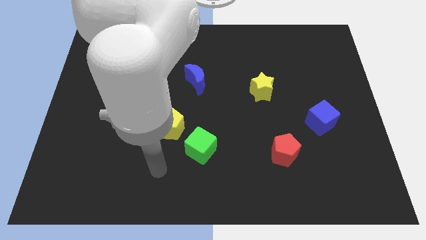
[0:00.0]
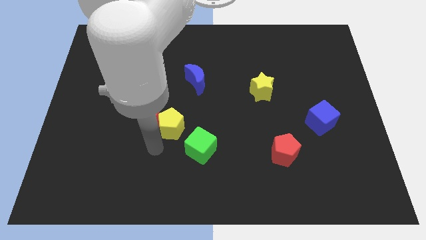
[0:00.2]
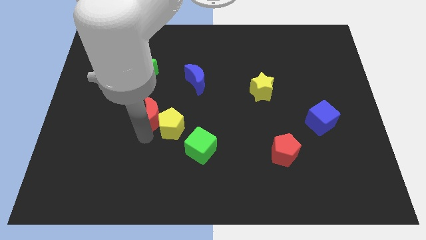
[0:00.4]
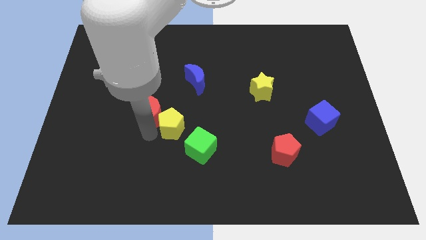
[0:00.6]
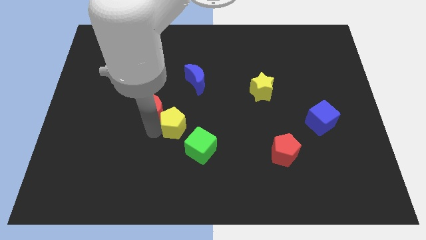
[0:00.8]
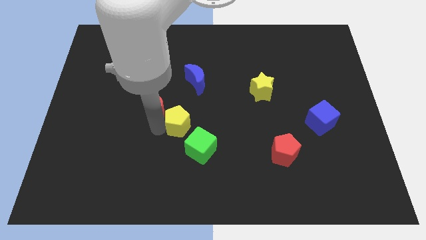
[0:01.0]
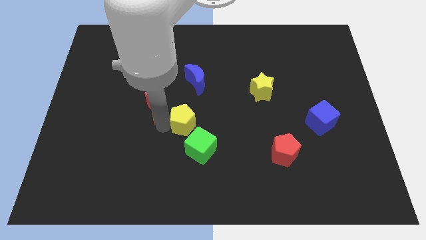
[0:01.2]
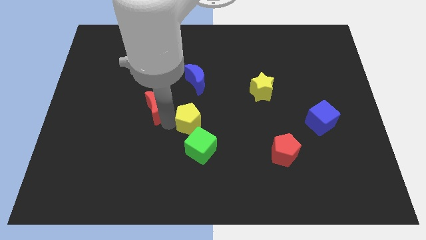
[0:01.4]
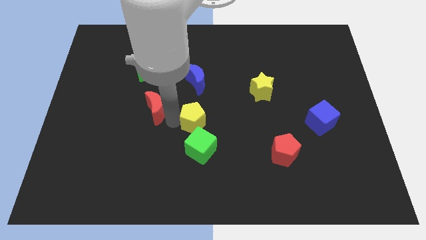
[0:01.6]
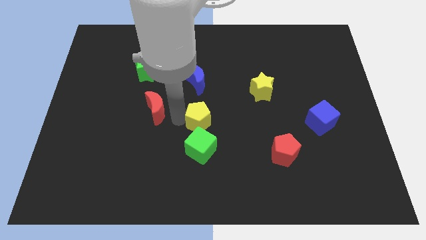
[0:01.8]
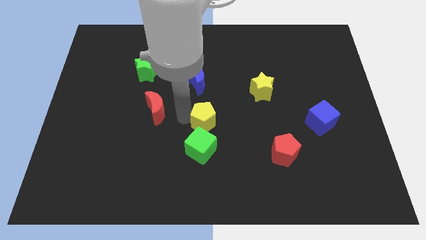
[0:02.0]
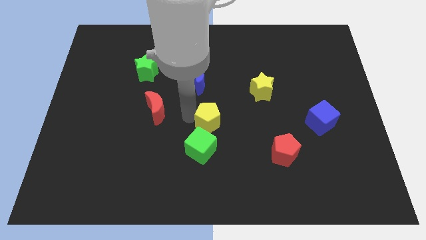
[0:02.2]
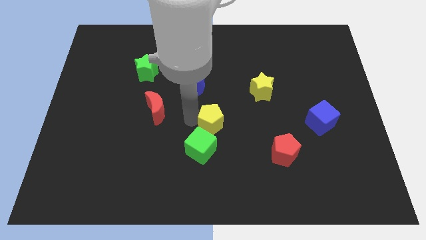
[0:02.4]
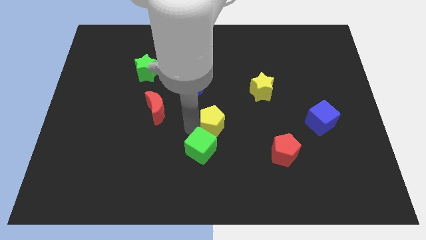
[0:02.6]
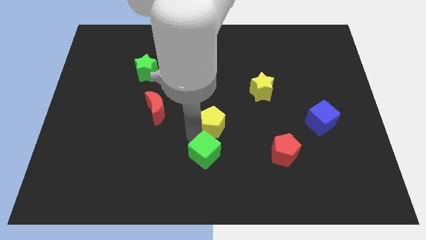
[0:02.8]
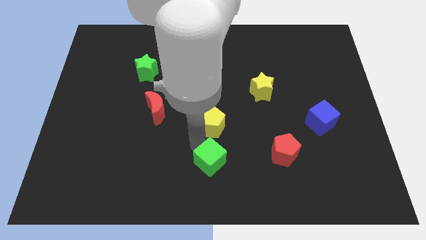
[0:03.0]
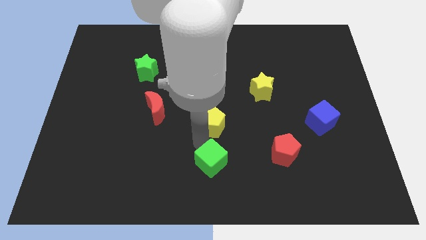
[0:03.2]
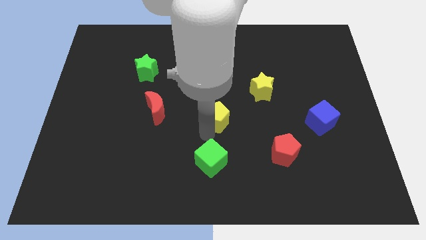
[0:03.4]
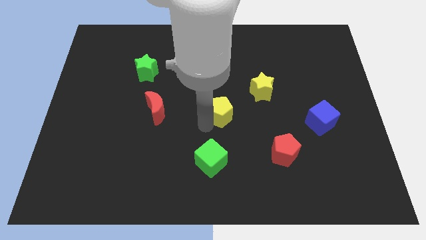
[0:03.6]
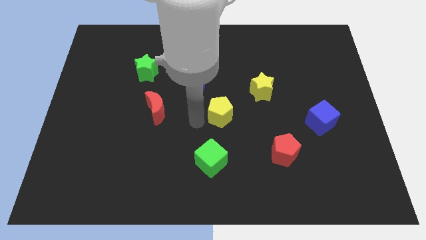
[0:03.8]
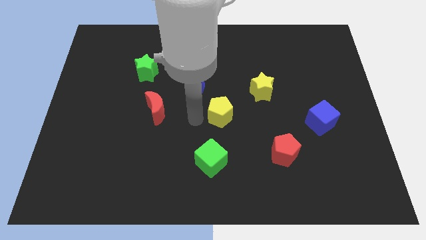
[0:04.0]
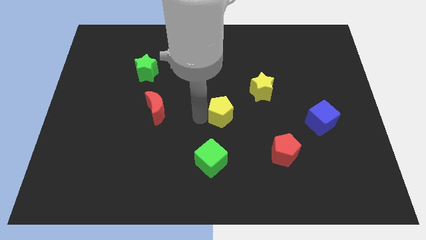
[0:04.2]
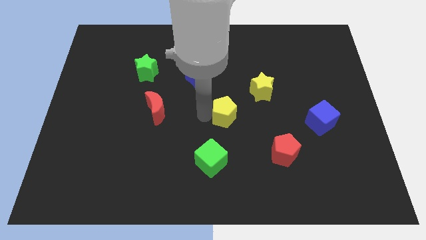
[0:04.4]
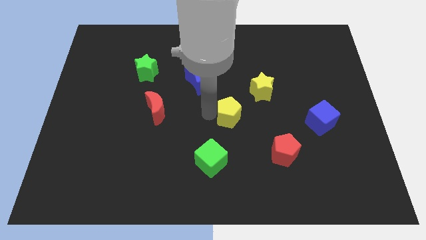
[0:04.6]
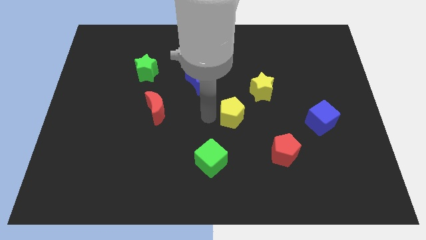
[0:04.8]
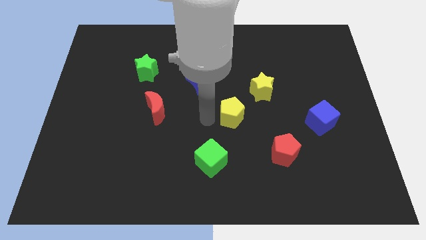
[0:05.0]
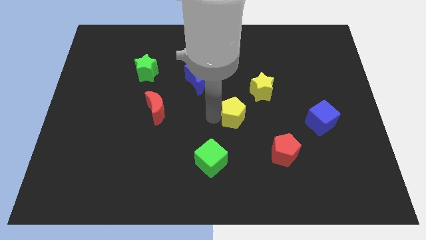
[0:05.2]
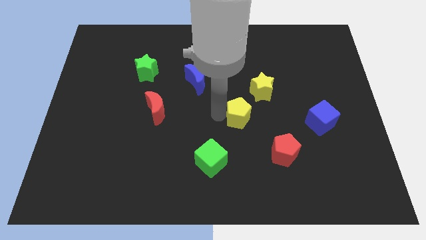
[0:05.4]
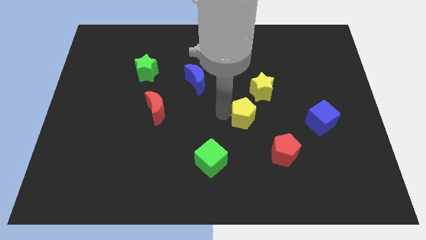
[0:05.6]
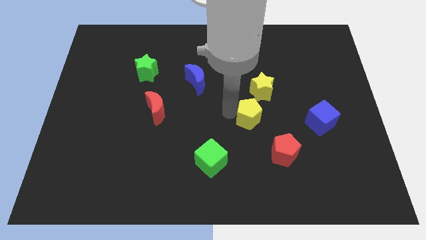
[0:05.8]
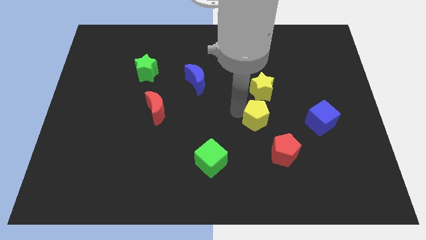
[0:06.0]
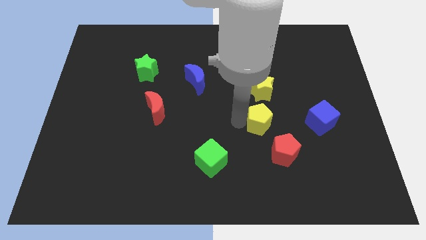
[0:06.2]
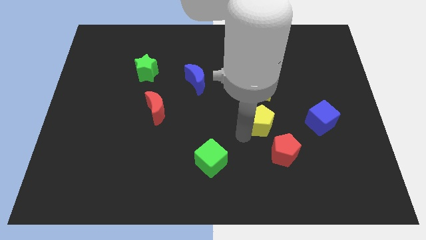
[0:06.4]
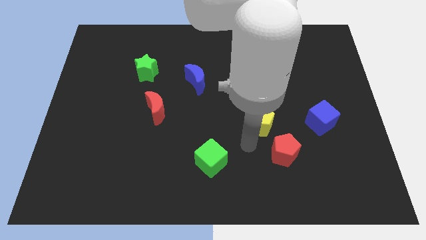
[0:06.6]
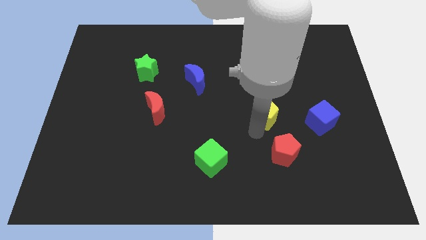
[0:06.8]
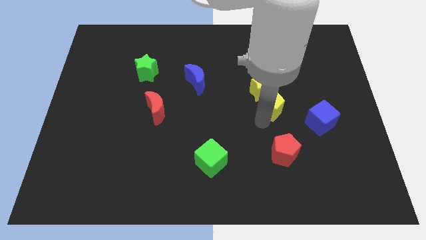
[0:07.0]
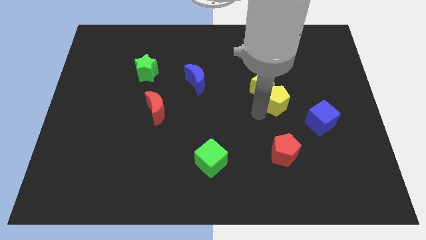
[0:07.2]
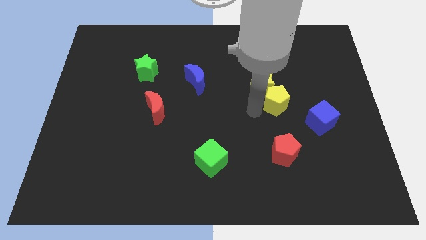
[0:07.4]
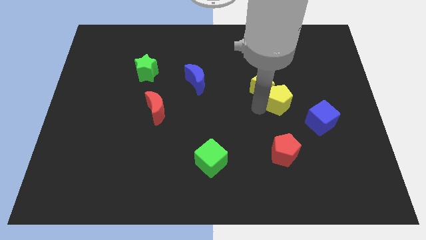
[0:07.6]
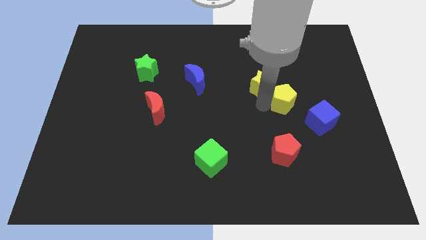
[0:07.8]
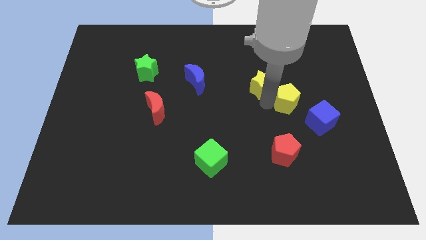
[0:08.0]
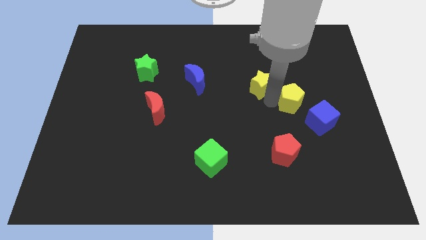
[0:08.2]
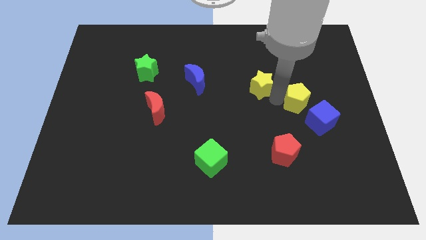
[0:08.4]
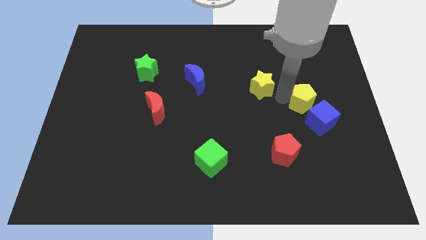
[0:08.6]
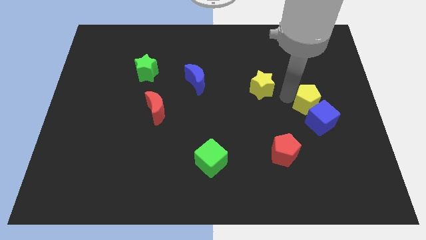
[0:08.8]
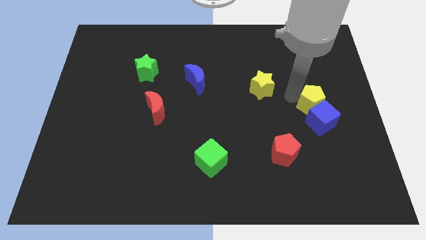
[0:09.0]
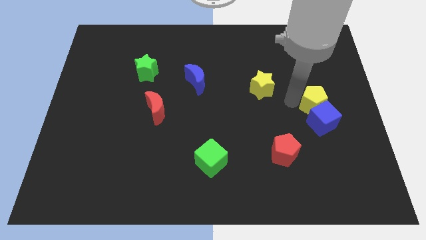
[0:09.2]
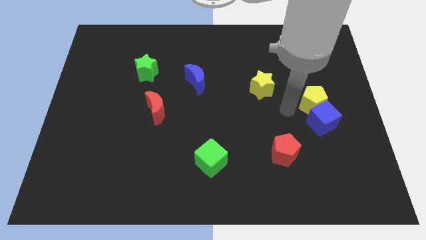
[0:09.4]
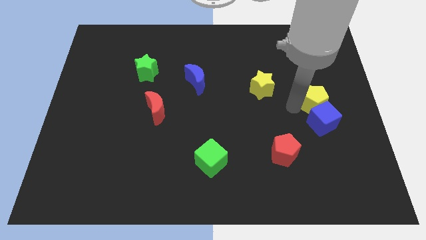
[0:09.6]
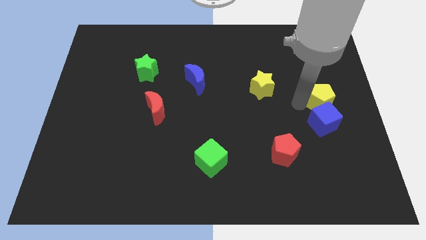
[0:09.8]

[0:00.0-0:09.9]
put the yellow pentagon to the right side

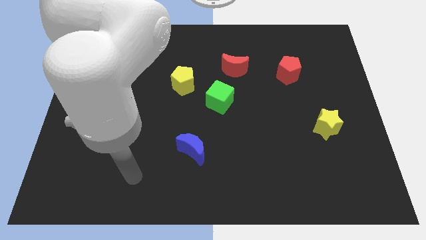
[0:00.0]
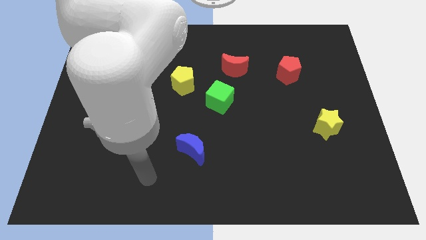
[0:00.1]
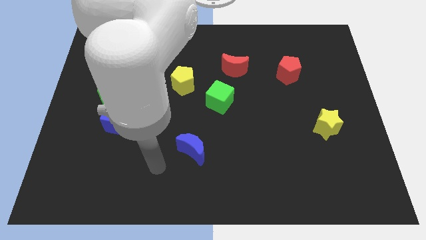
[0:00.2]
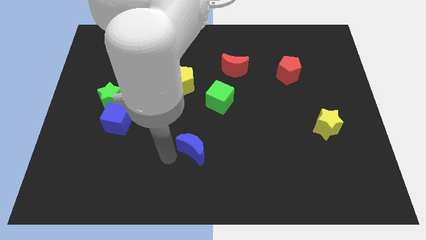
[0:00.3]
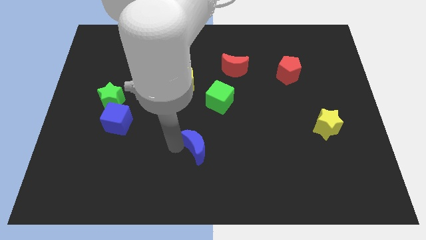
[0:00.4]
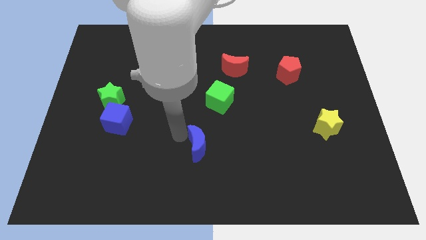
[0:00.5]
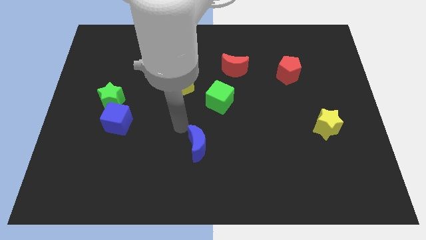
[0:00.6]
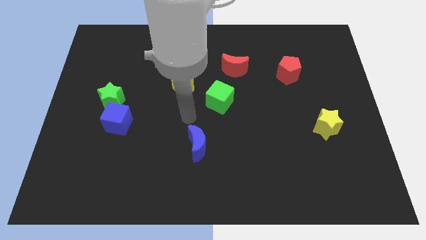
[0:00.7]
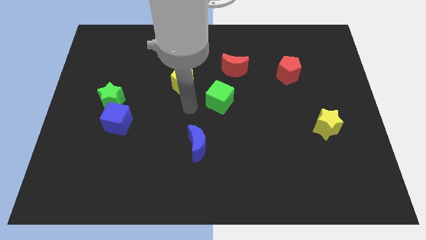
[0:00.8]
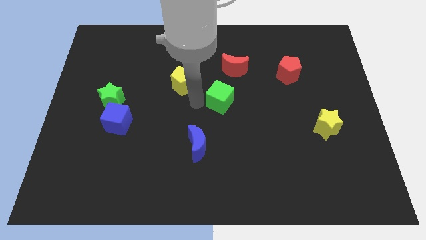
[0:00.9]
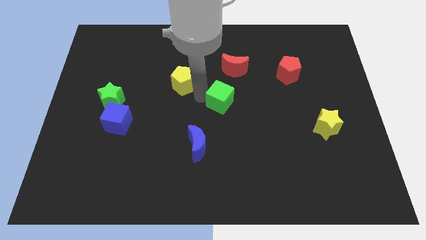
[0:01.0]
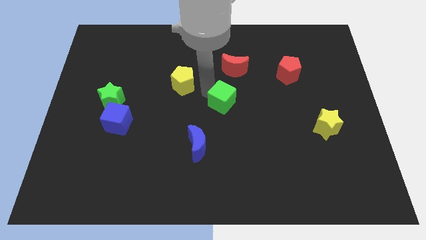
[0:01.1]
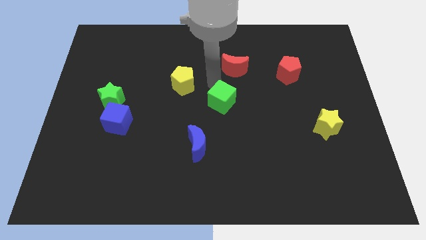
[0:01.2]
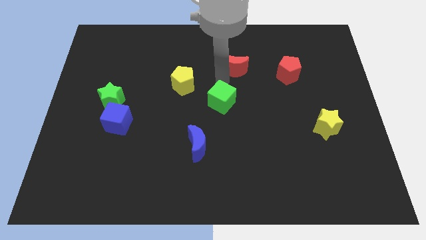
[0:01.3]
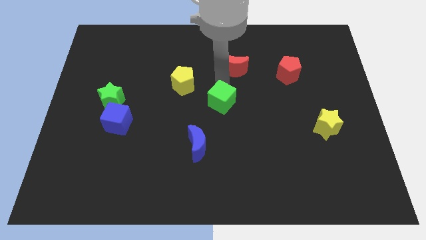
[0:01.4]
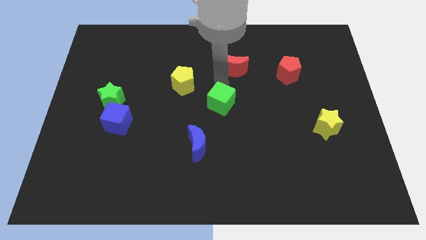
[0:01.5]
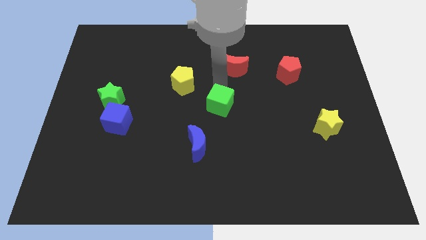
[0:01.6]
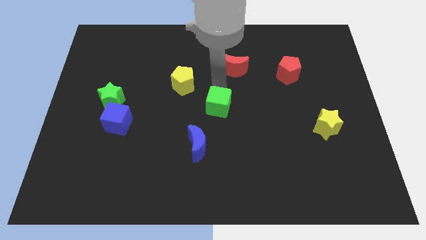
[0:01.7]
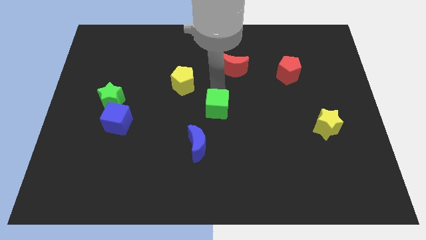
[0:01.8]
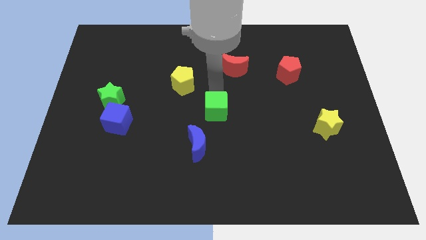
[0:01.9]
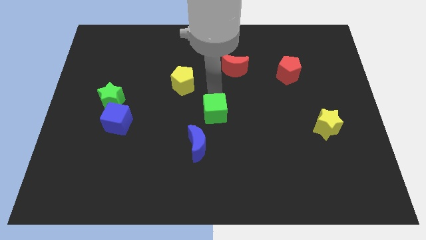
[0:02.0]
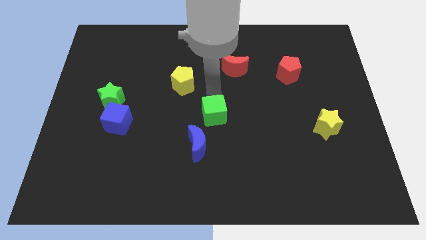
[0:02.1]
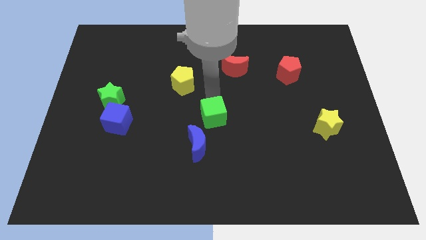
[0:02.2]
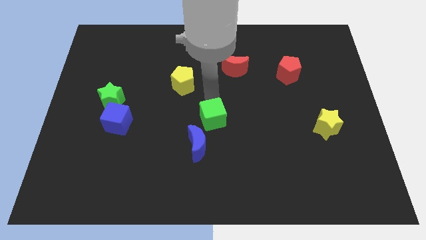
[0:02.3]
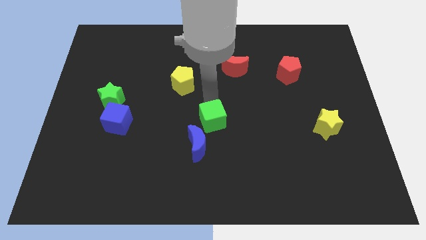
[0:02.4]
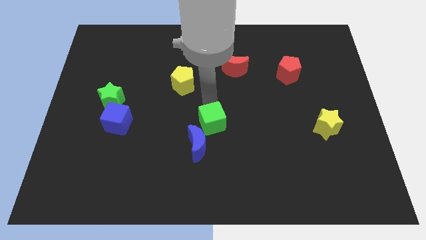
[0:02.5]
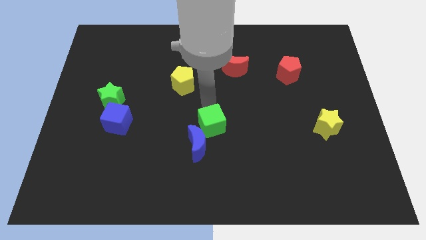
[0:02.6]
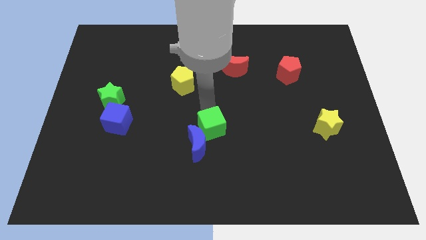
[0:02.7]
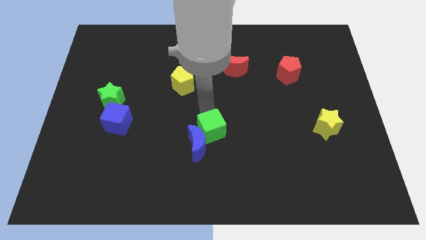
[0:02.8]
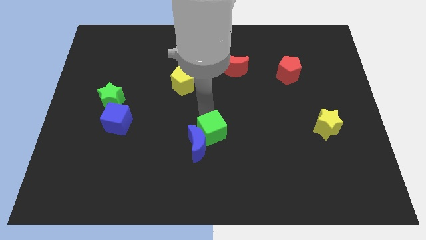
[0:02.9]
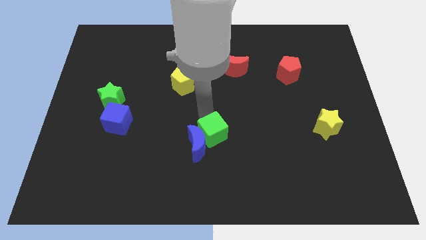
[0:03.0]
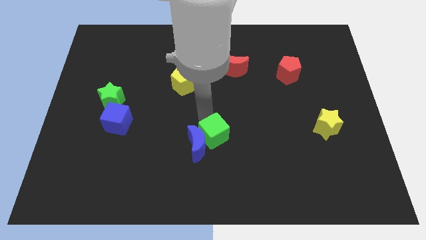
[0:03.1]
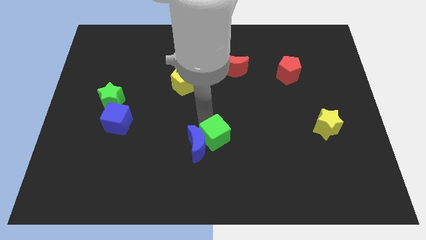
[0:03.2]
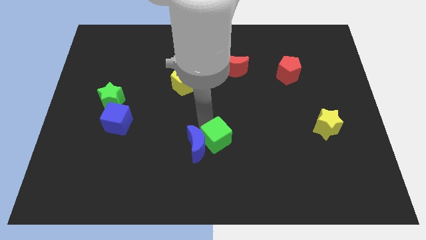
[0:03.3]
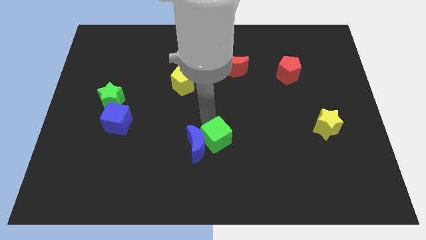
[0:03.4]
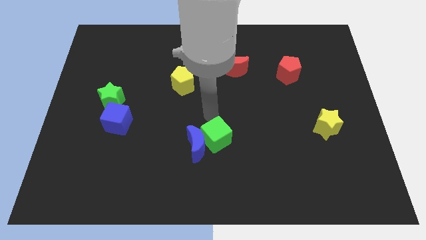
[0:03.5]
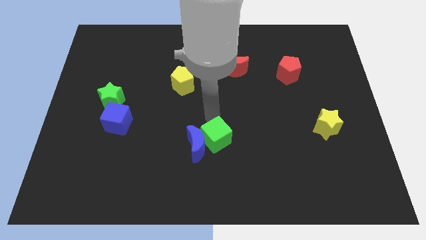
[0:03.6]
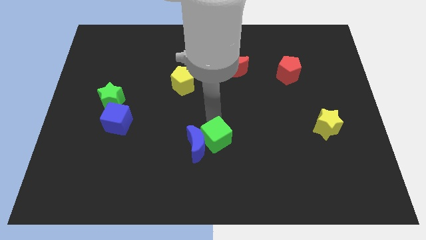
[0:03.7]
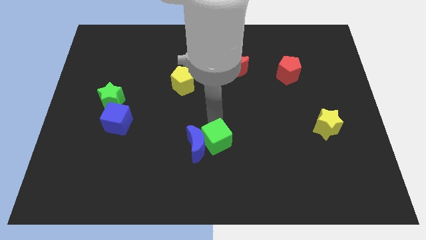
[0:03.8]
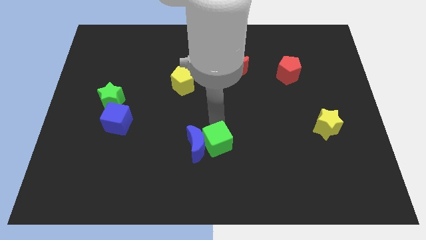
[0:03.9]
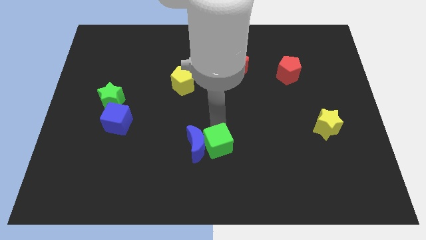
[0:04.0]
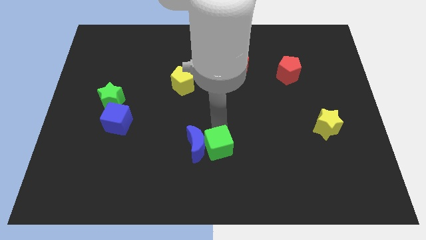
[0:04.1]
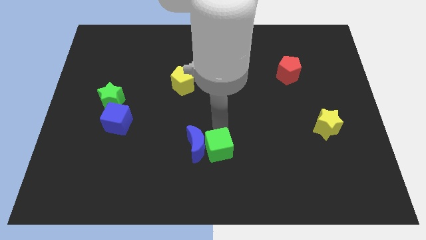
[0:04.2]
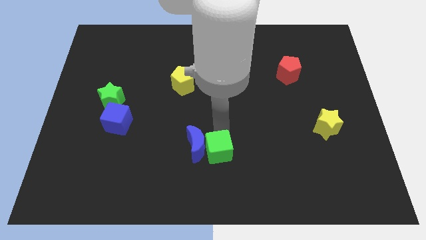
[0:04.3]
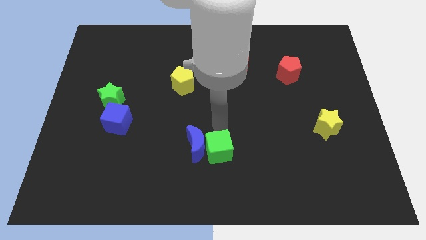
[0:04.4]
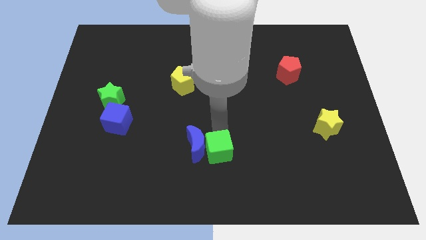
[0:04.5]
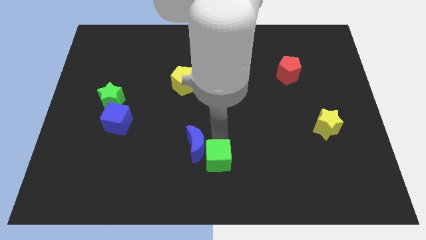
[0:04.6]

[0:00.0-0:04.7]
move the green cube to the bottom side
